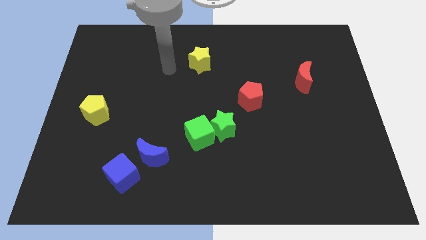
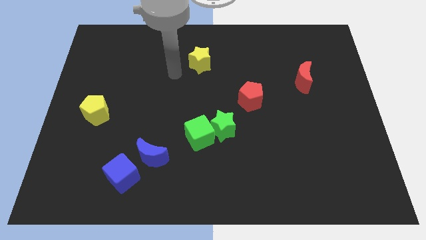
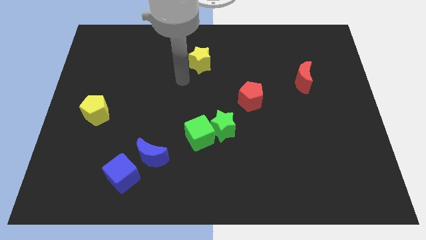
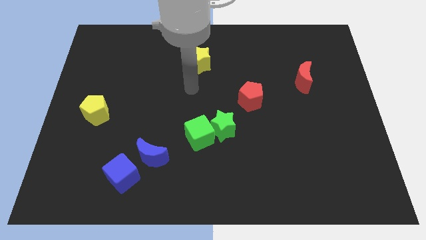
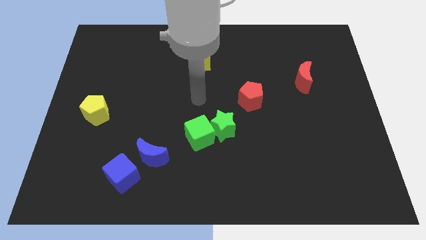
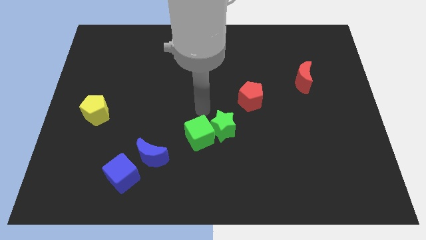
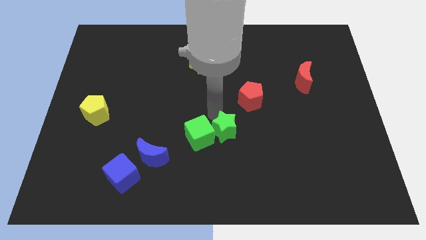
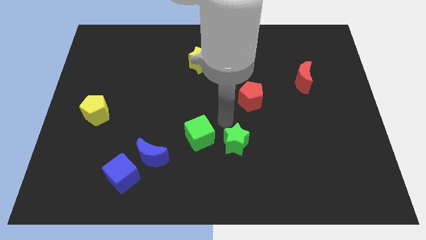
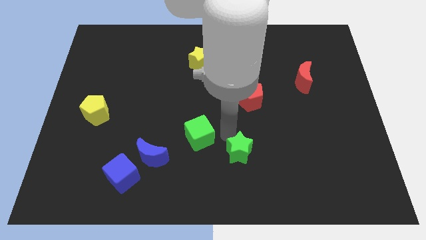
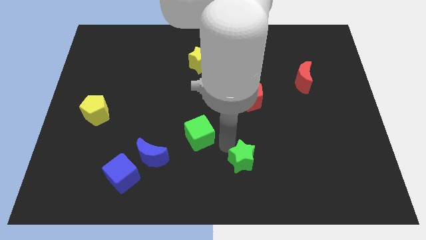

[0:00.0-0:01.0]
separate the green cube from the green star

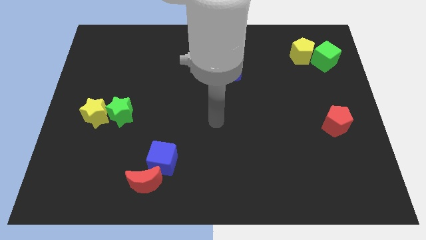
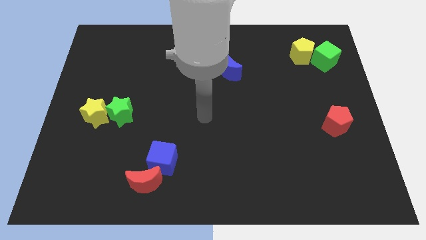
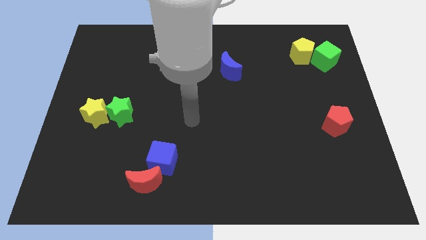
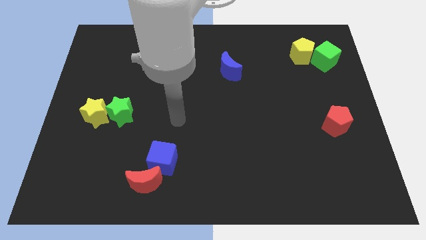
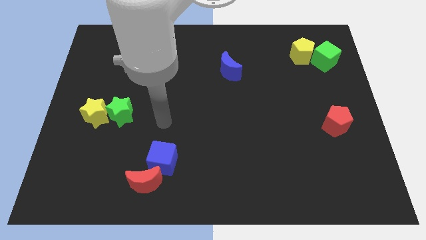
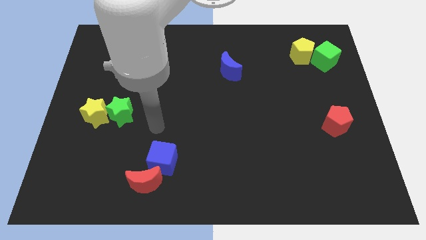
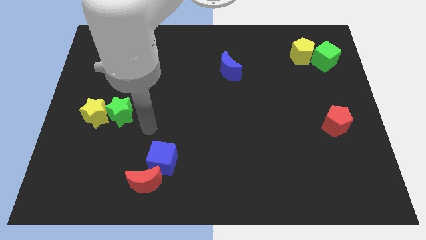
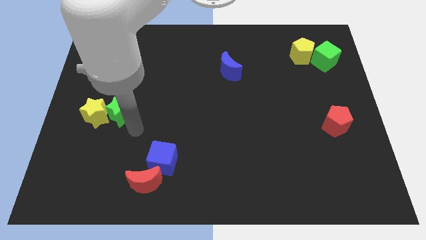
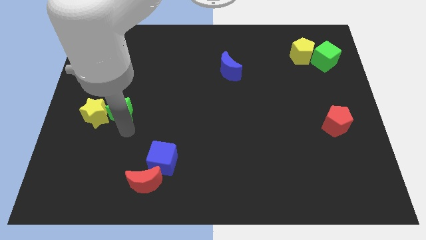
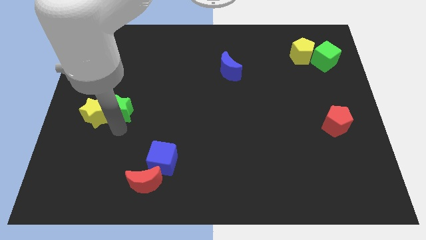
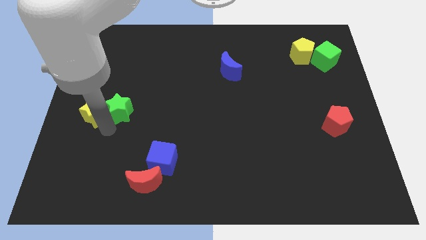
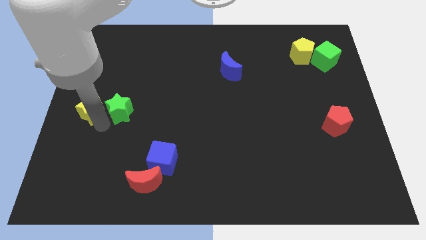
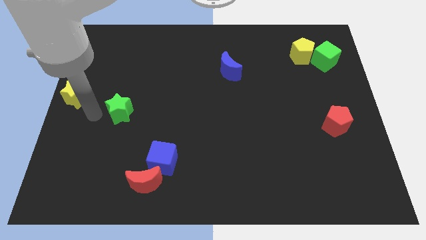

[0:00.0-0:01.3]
move the green star away from the yellow star

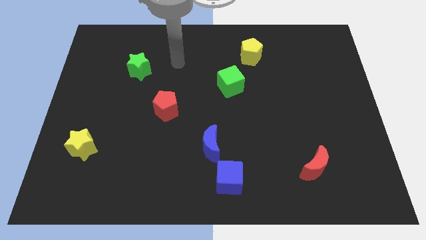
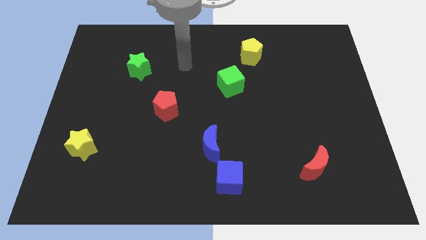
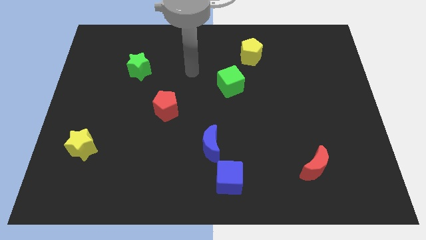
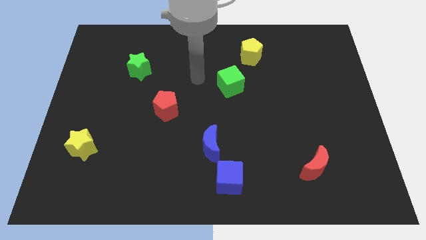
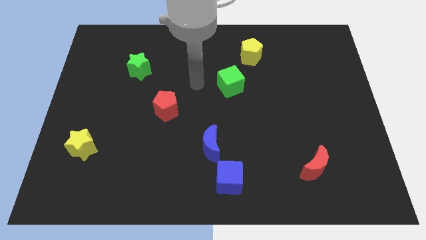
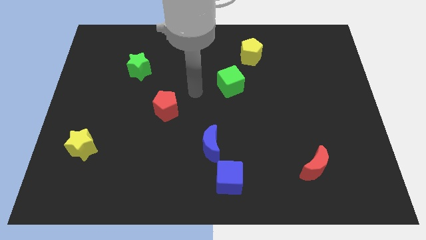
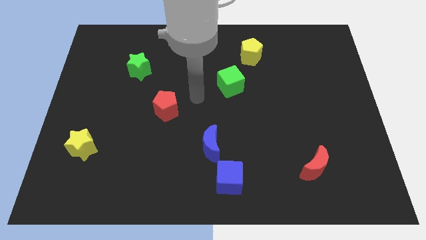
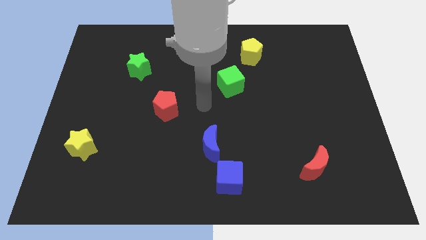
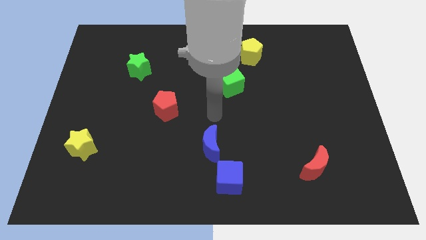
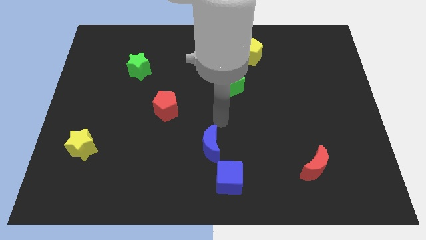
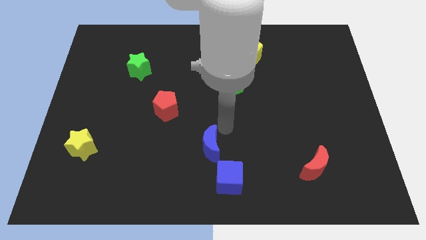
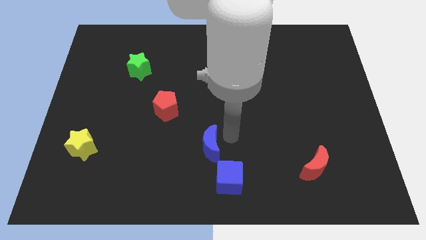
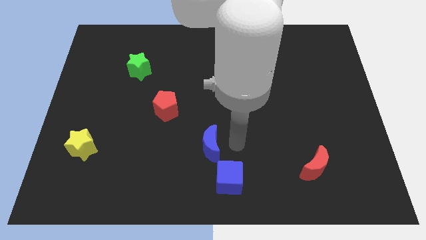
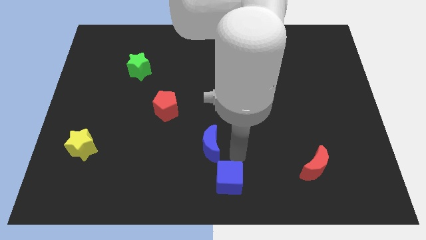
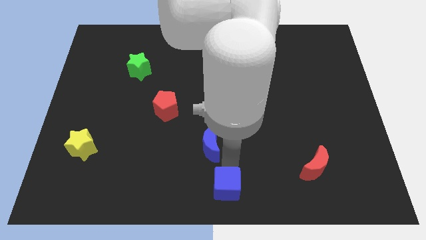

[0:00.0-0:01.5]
separate the blue moon from the blue cube

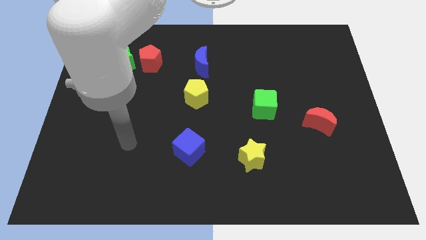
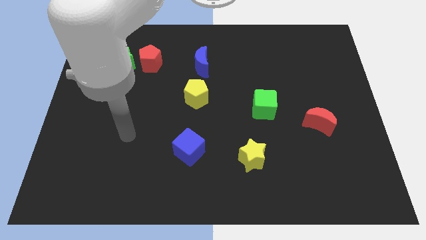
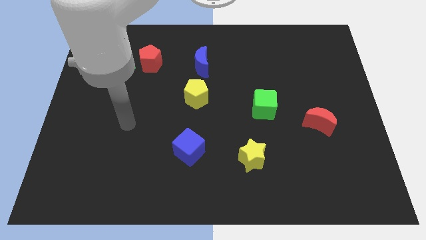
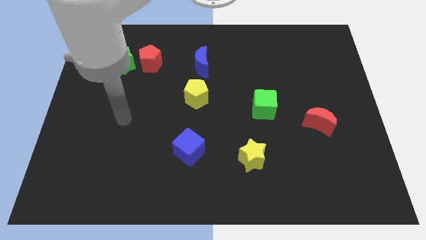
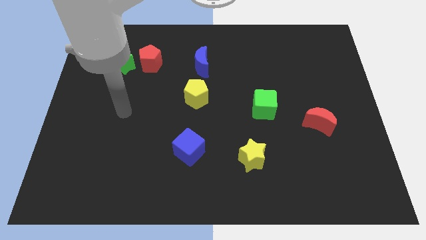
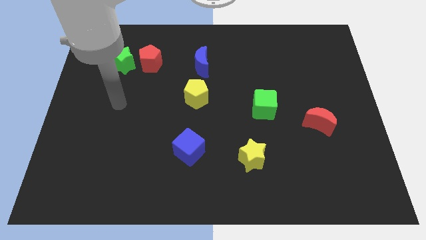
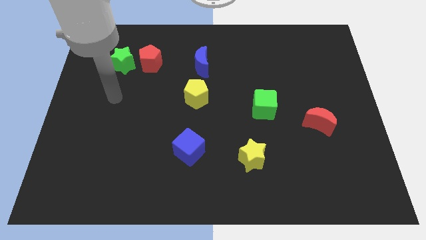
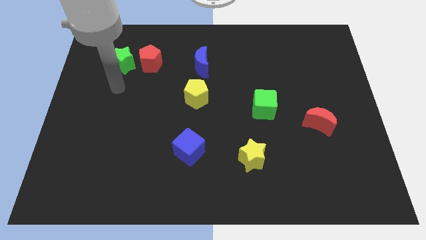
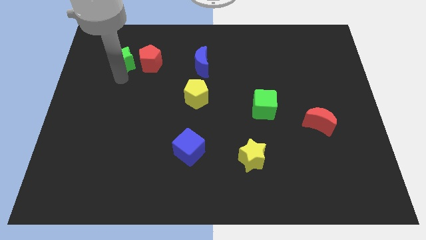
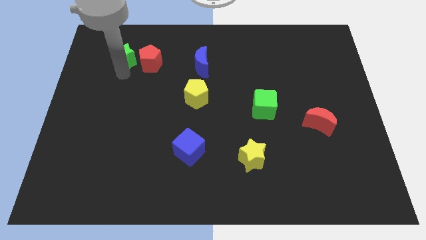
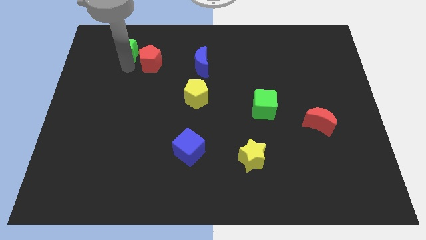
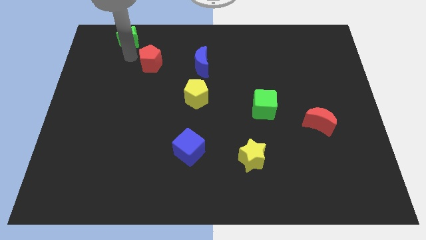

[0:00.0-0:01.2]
pull the red pentagon apart from the green star

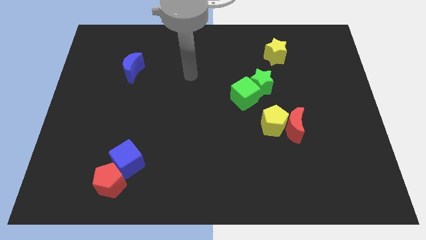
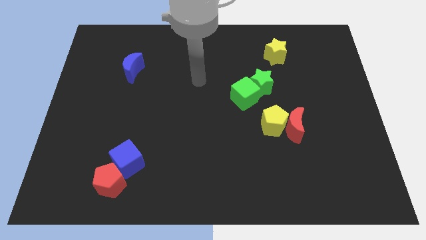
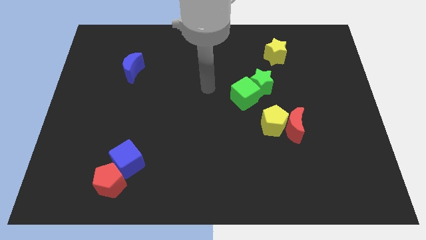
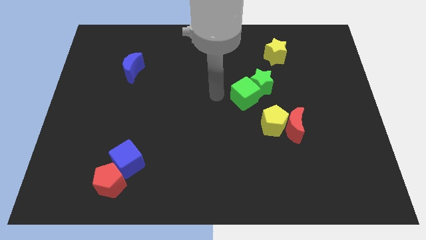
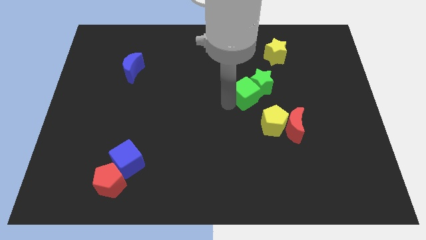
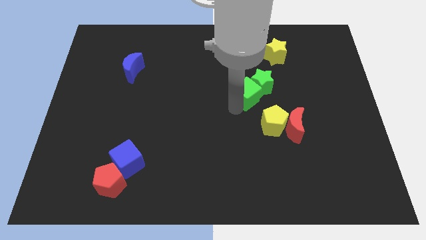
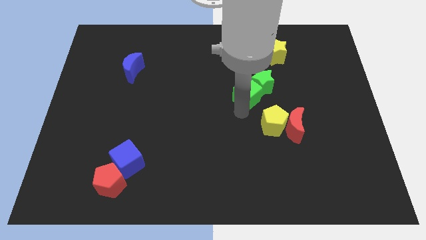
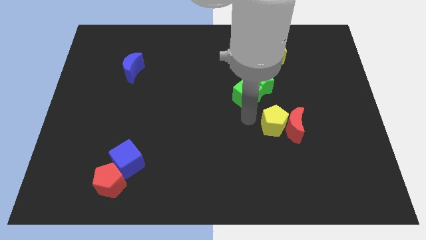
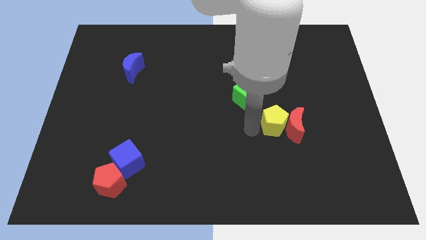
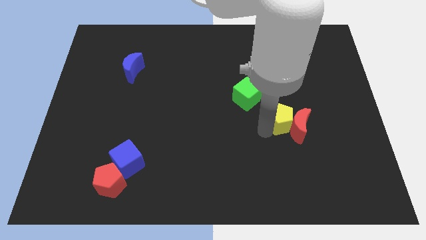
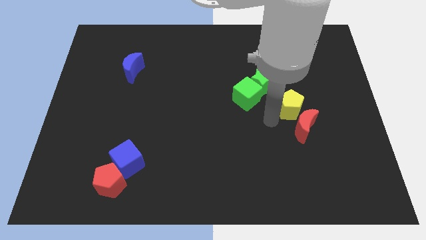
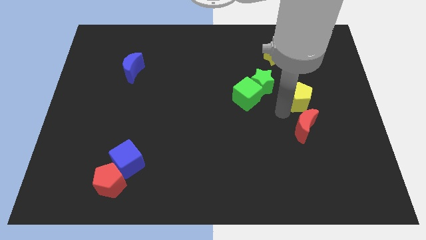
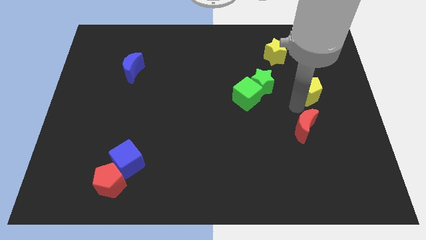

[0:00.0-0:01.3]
pull the red moon apart from the yellow pentagon

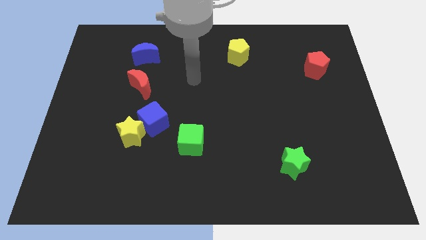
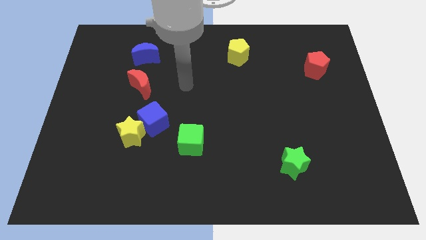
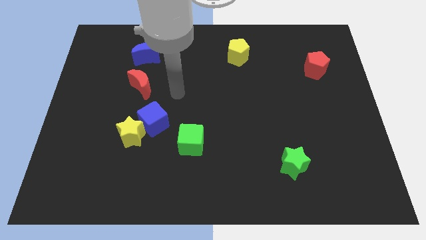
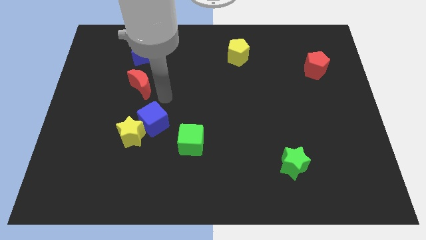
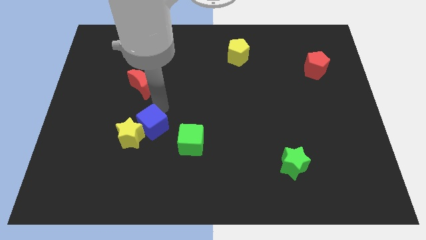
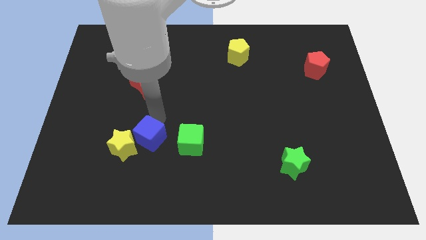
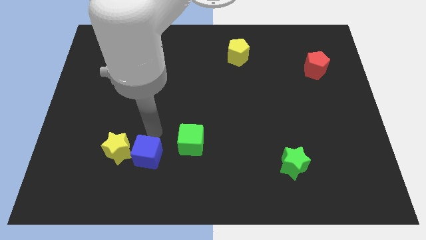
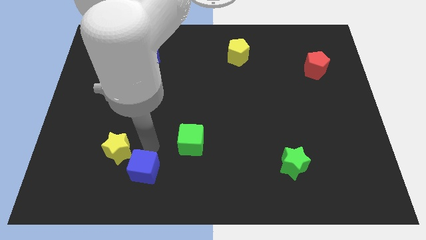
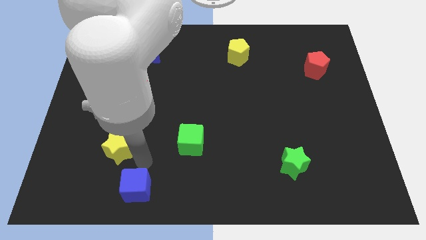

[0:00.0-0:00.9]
move the yellow star away from the blue cube

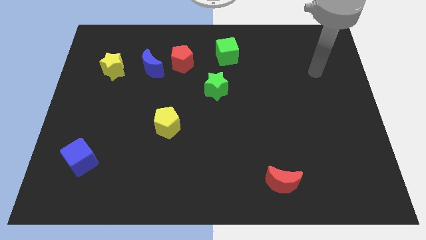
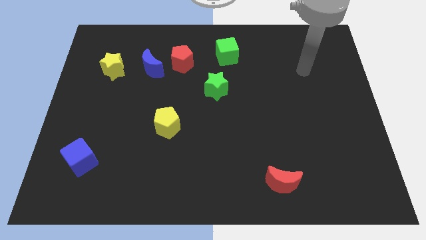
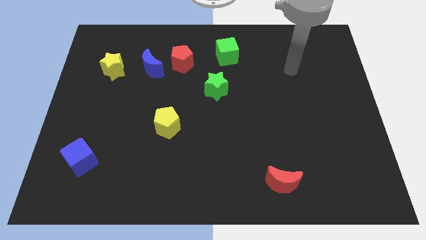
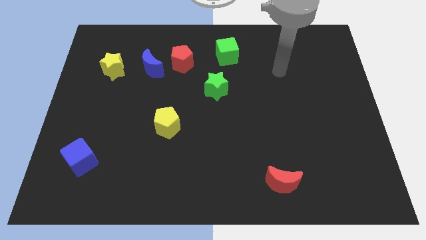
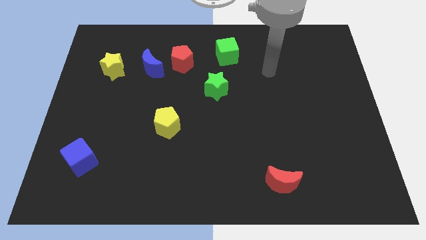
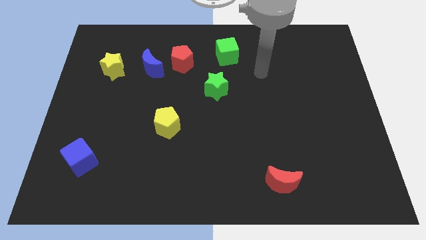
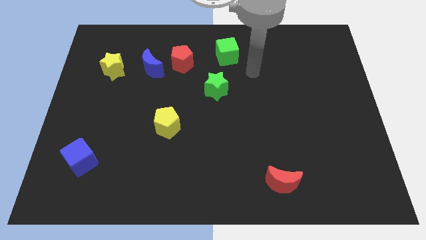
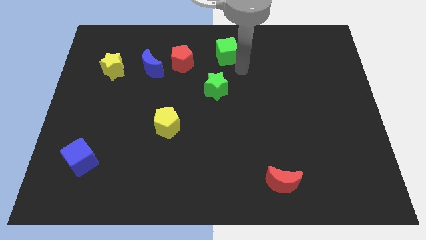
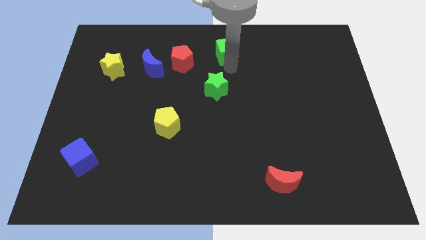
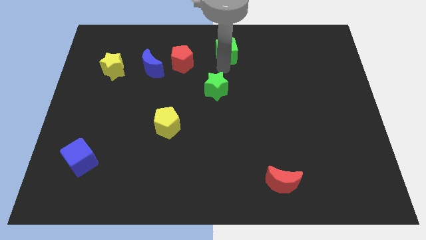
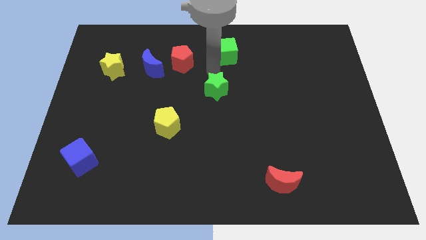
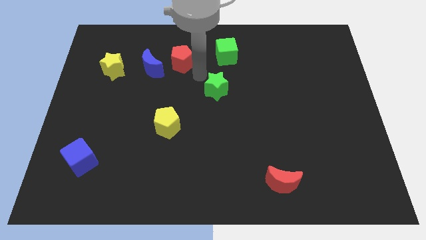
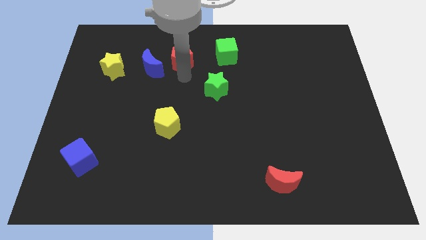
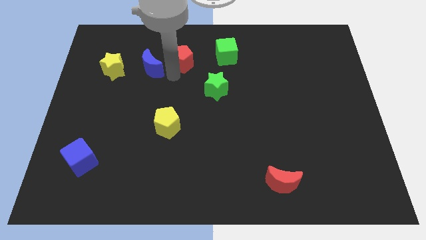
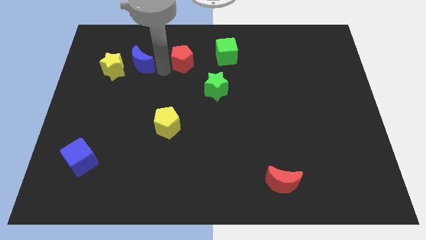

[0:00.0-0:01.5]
move the red pentagon away from the blue moon

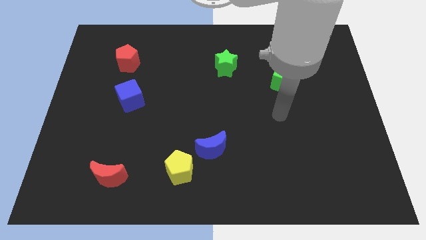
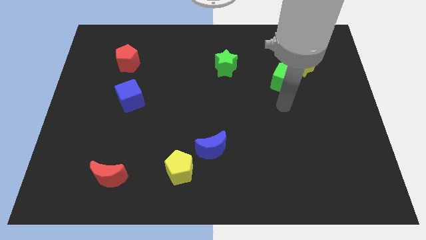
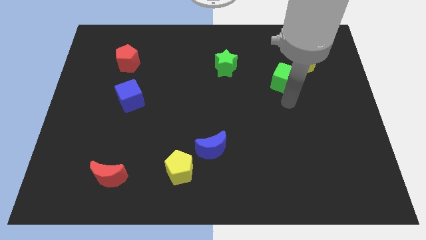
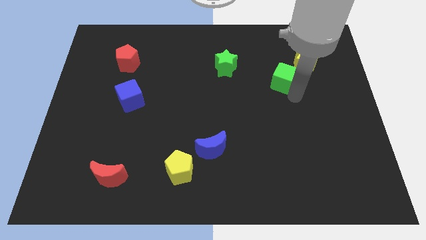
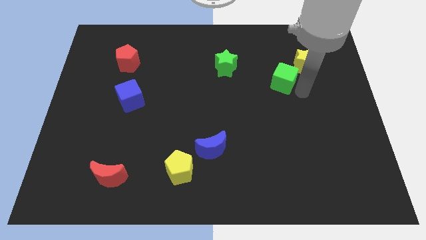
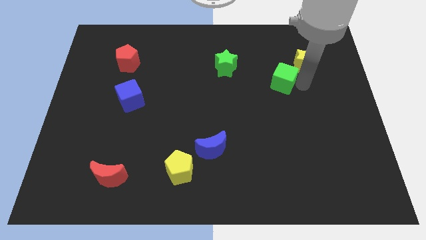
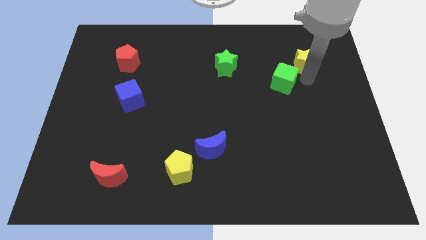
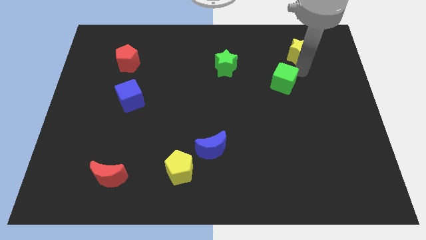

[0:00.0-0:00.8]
separate the green cube from the yellow star
